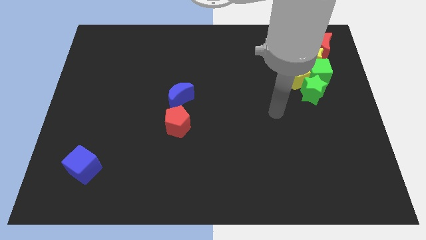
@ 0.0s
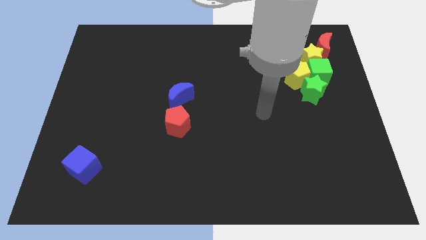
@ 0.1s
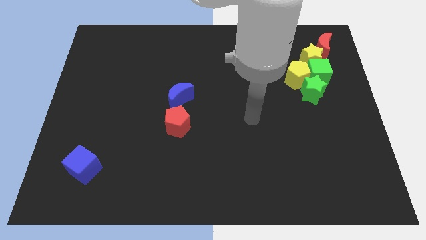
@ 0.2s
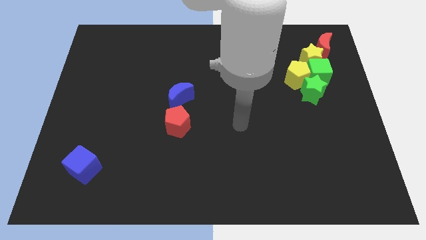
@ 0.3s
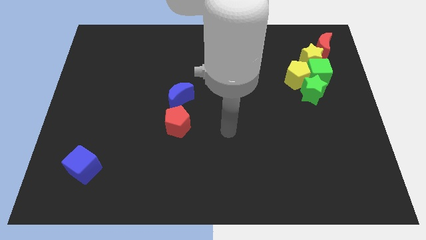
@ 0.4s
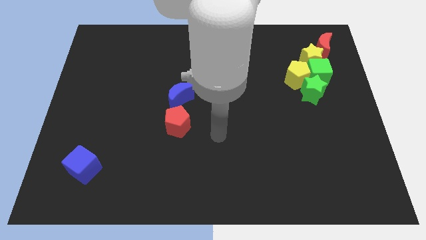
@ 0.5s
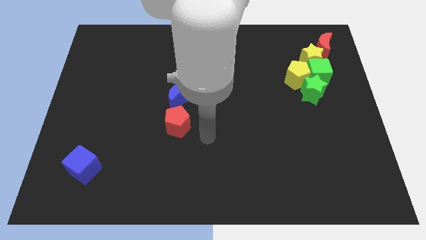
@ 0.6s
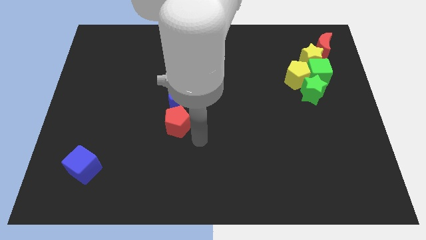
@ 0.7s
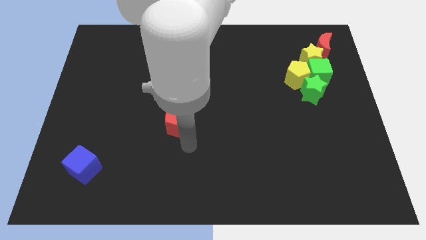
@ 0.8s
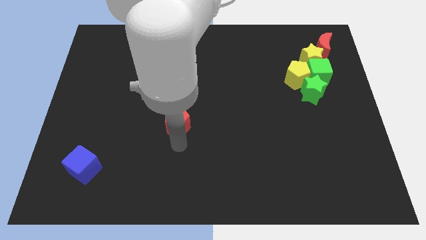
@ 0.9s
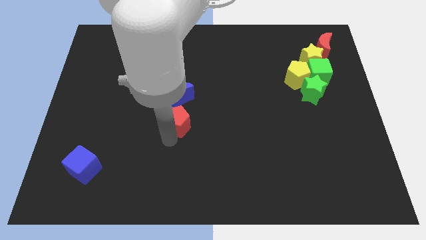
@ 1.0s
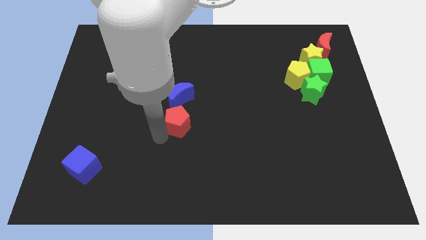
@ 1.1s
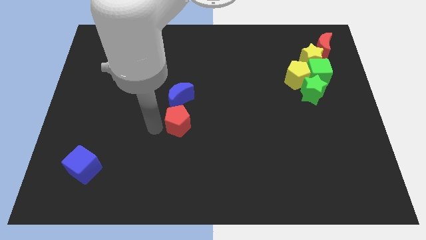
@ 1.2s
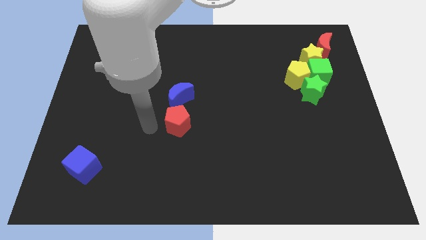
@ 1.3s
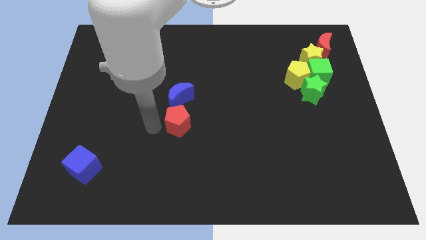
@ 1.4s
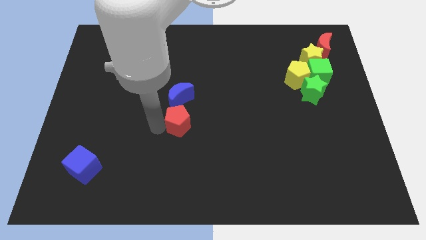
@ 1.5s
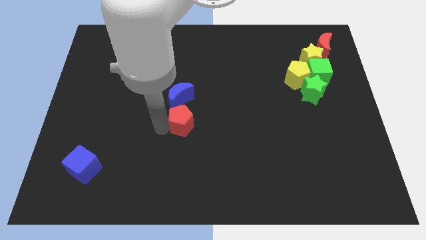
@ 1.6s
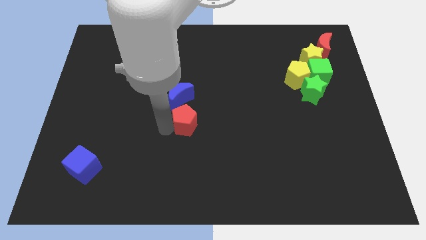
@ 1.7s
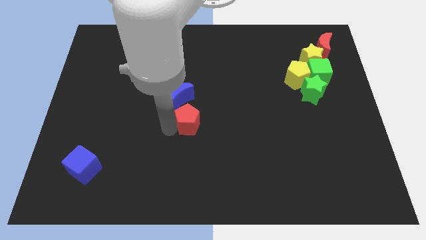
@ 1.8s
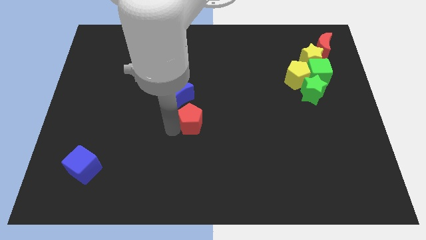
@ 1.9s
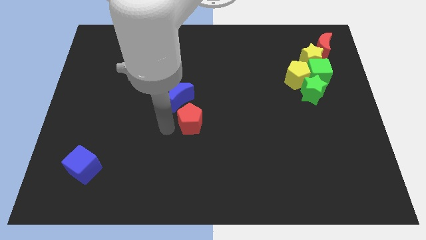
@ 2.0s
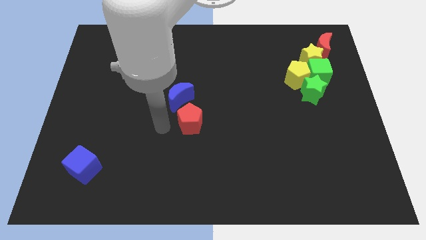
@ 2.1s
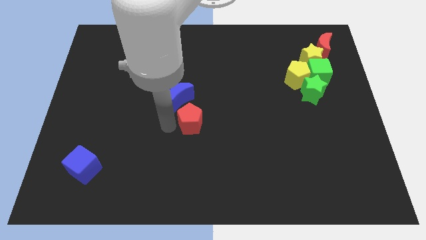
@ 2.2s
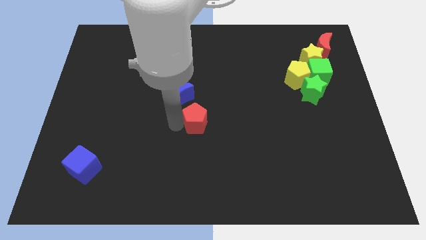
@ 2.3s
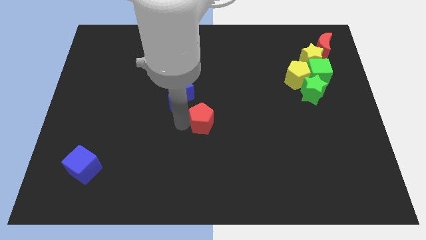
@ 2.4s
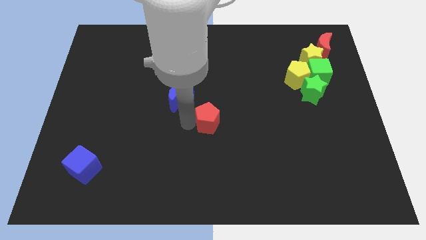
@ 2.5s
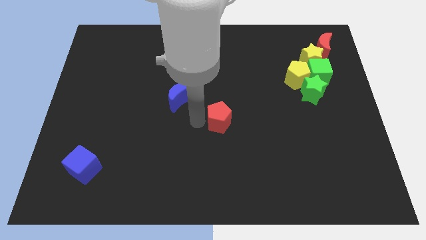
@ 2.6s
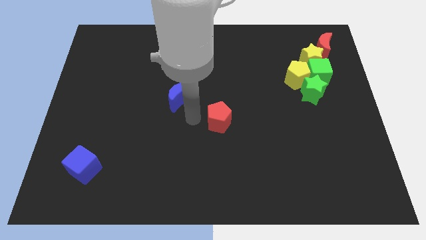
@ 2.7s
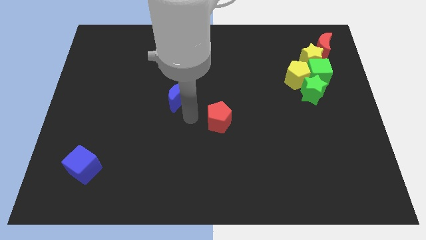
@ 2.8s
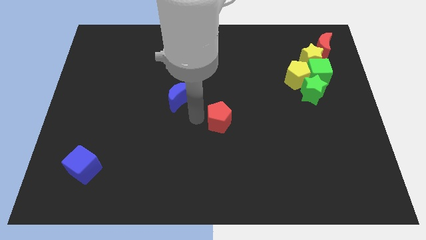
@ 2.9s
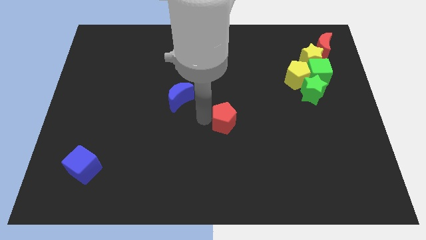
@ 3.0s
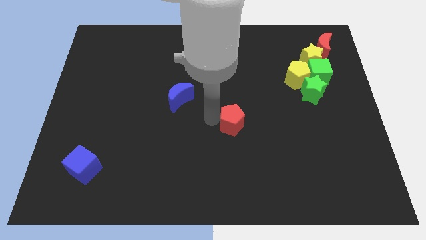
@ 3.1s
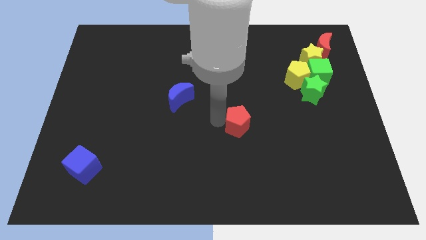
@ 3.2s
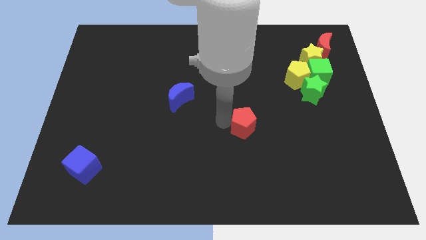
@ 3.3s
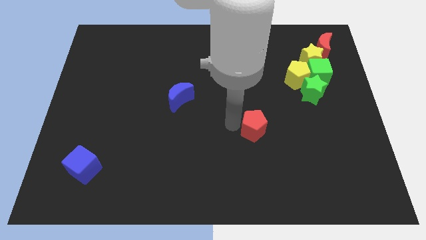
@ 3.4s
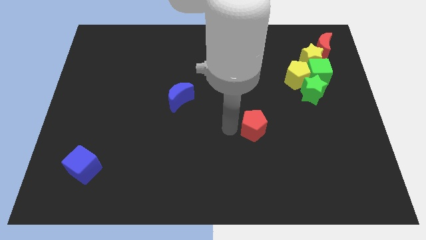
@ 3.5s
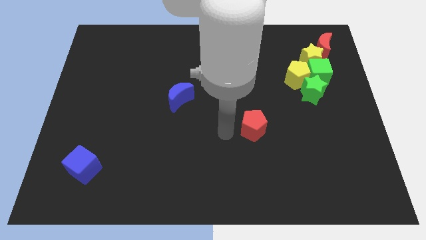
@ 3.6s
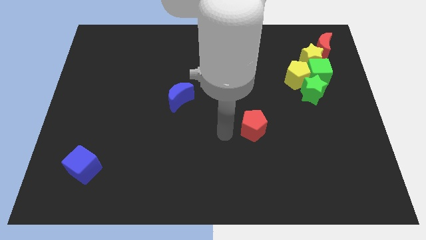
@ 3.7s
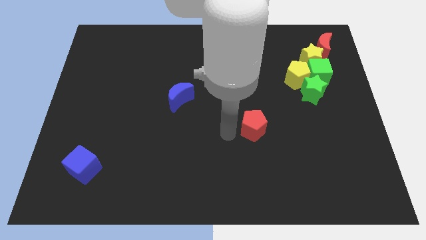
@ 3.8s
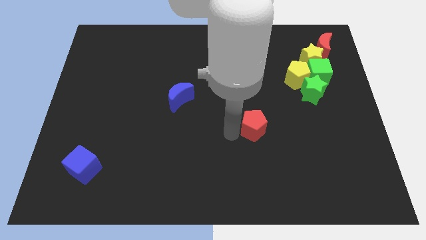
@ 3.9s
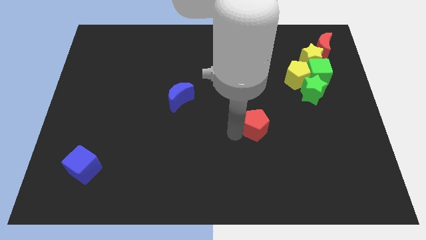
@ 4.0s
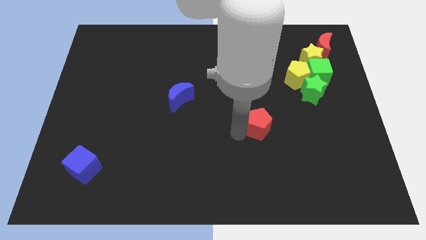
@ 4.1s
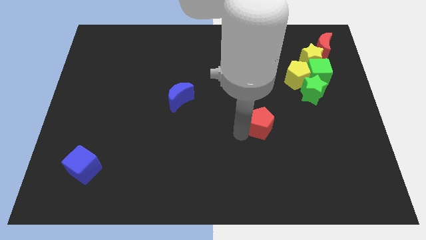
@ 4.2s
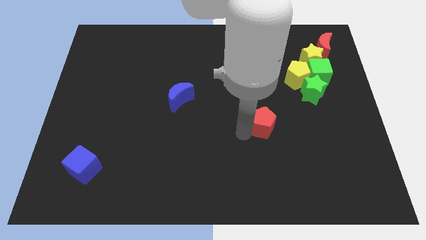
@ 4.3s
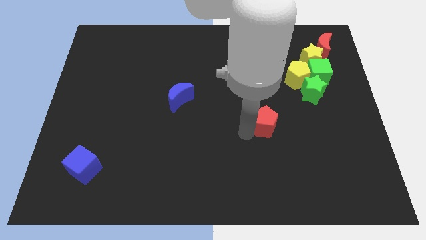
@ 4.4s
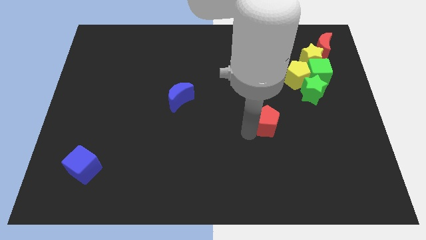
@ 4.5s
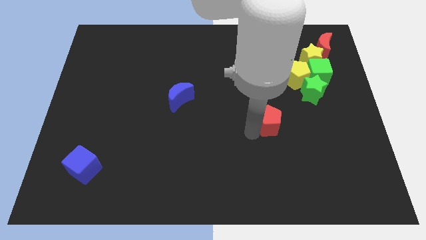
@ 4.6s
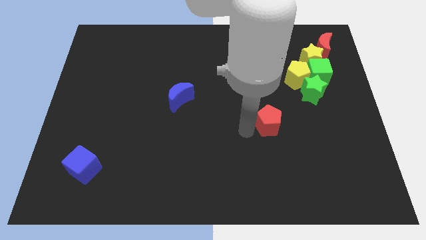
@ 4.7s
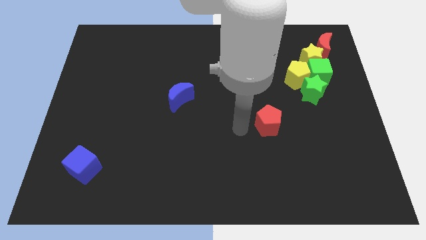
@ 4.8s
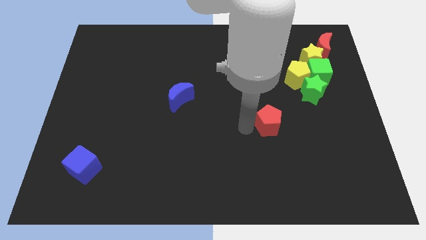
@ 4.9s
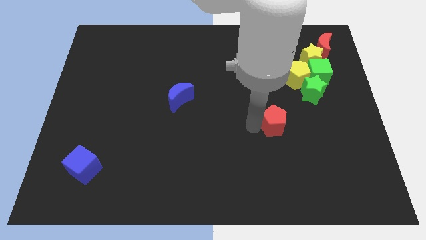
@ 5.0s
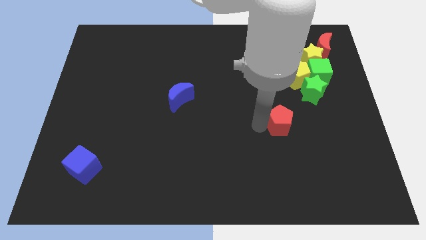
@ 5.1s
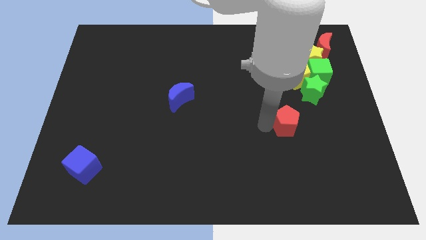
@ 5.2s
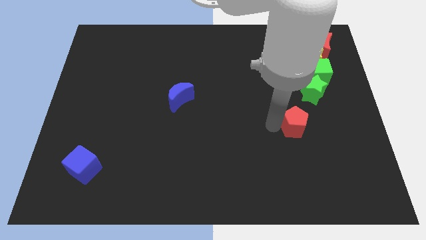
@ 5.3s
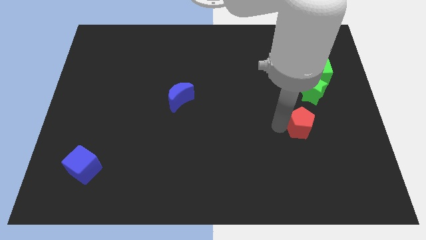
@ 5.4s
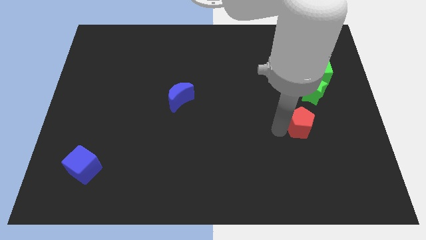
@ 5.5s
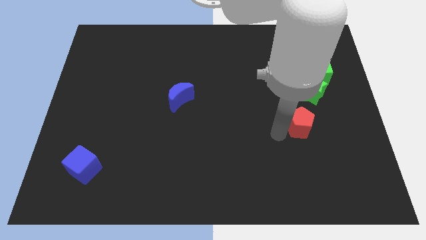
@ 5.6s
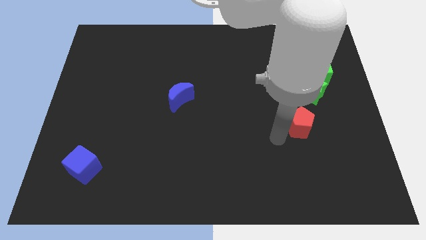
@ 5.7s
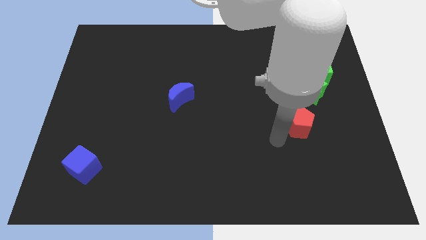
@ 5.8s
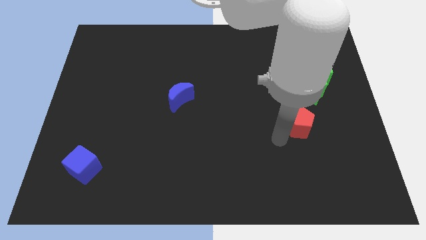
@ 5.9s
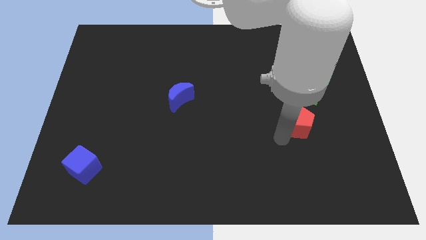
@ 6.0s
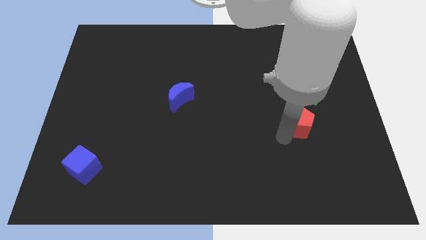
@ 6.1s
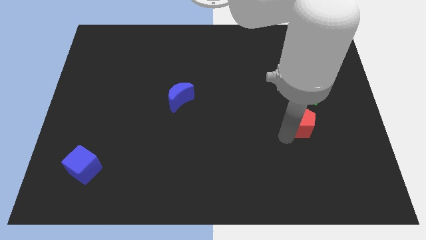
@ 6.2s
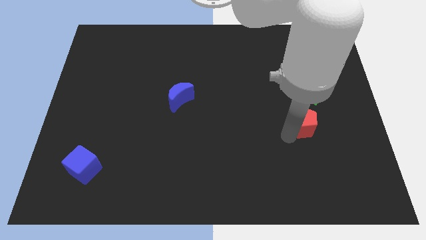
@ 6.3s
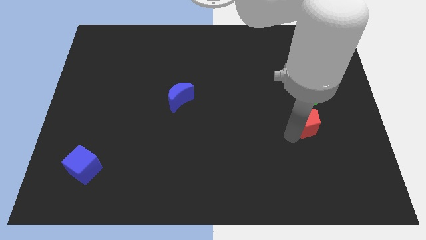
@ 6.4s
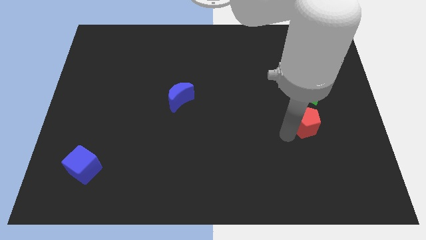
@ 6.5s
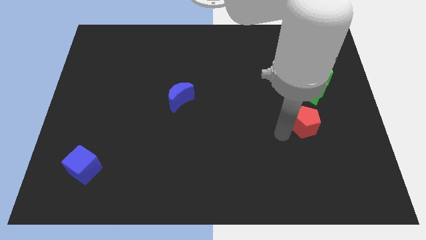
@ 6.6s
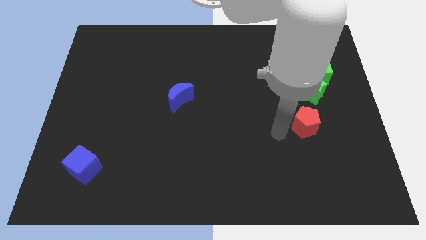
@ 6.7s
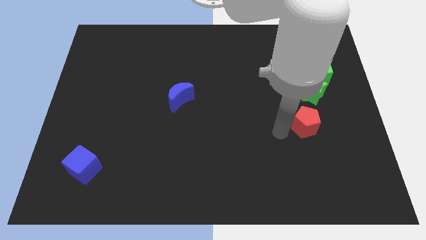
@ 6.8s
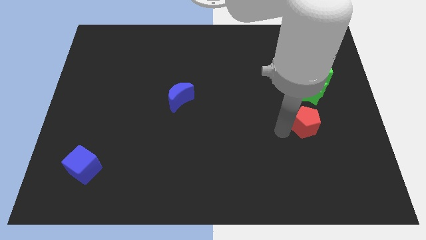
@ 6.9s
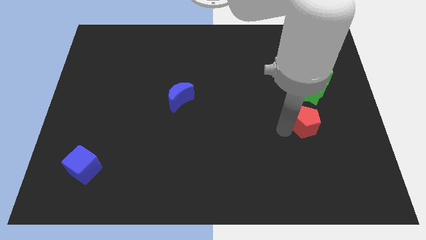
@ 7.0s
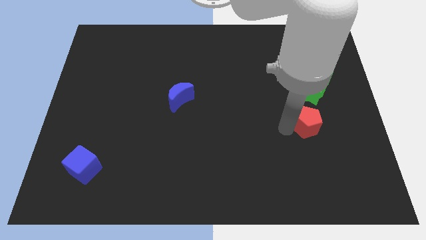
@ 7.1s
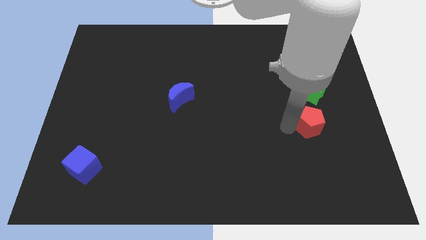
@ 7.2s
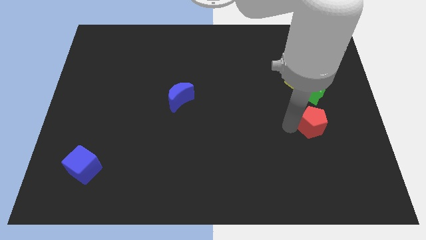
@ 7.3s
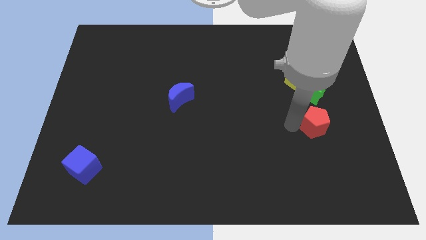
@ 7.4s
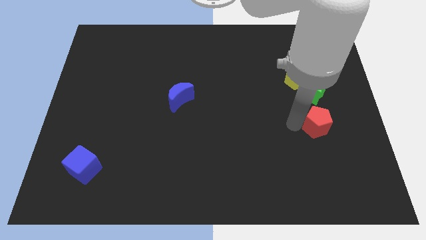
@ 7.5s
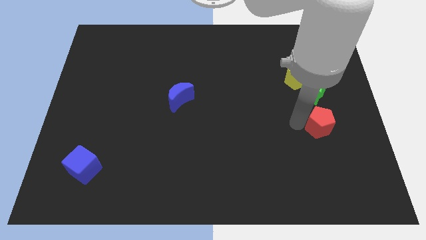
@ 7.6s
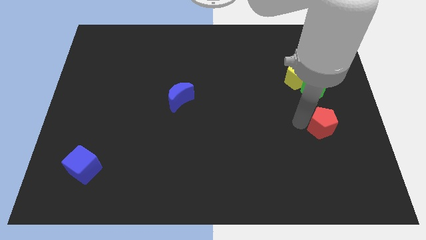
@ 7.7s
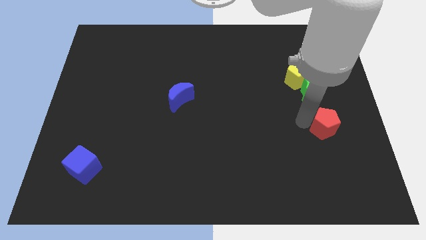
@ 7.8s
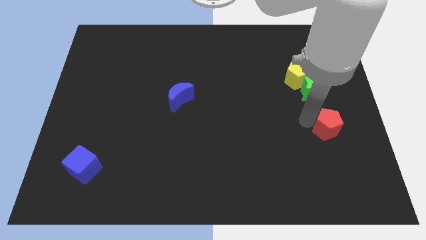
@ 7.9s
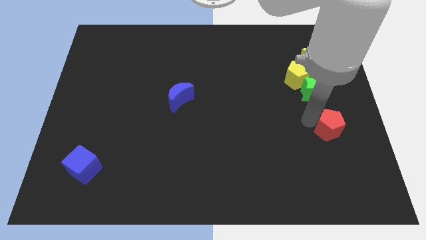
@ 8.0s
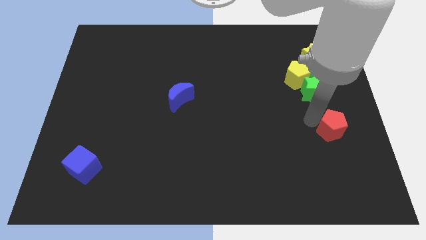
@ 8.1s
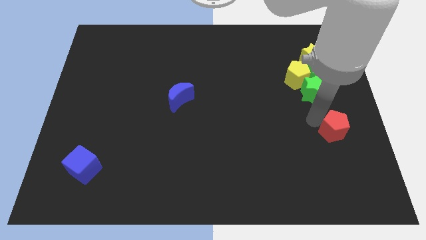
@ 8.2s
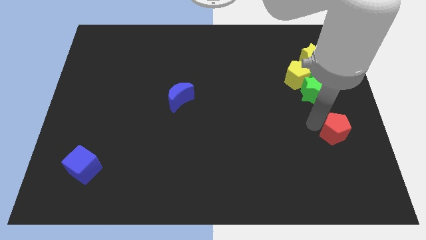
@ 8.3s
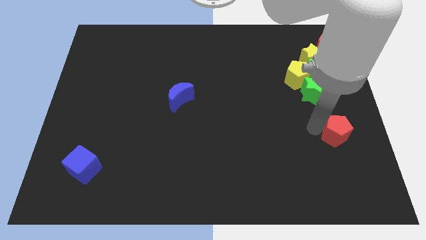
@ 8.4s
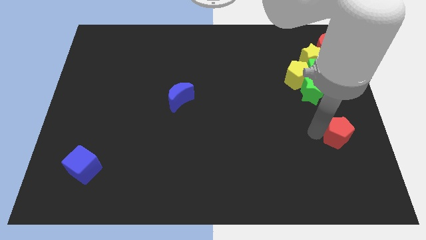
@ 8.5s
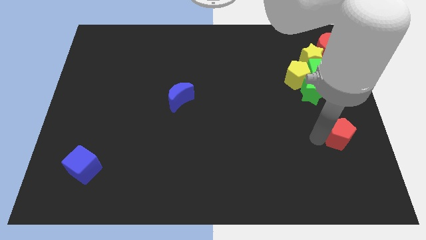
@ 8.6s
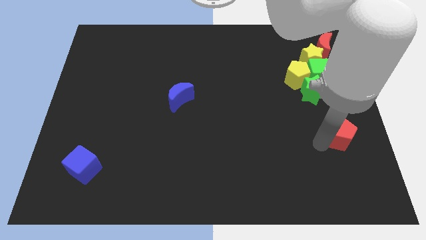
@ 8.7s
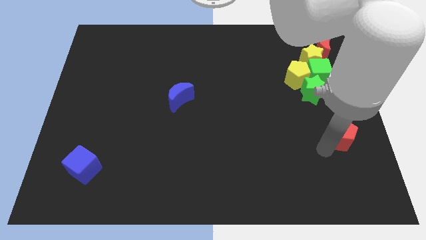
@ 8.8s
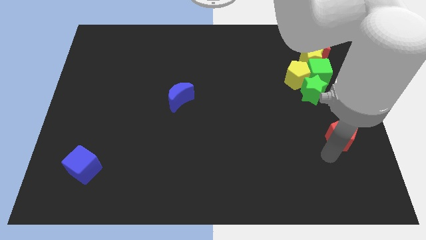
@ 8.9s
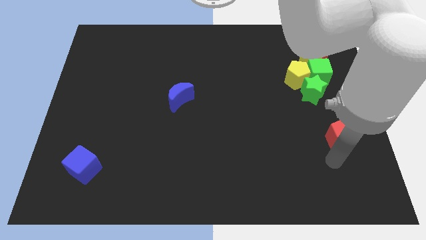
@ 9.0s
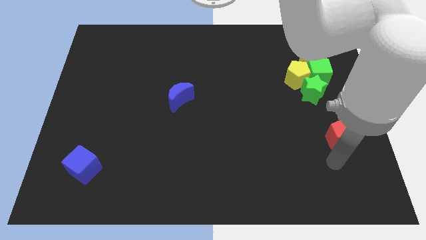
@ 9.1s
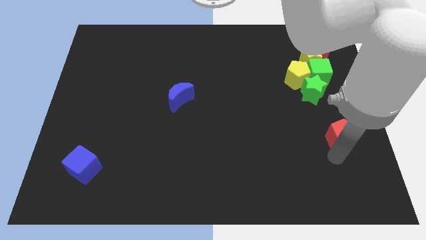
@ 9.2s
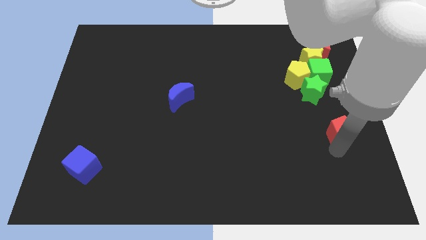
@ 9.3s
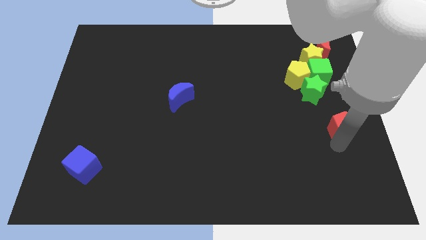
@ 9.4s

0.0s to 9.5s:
move the red pentagon to the center right
